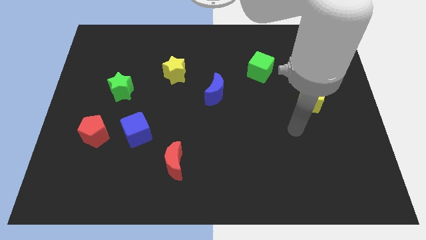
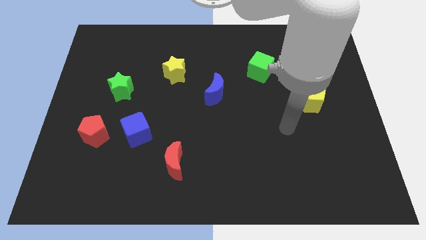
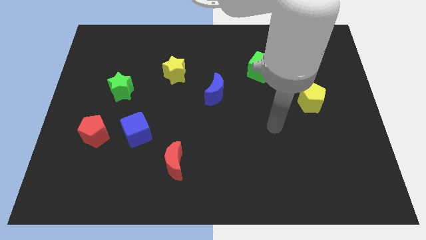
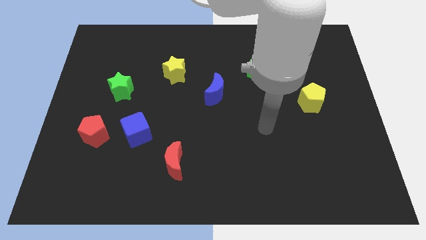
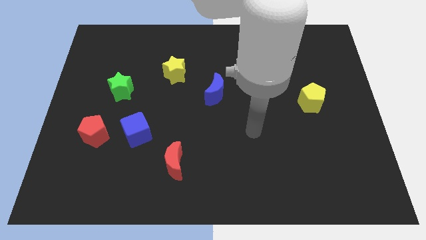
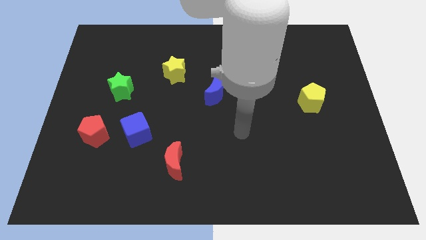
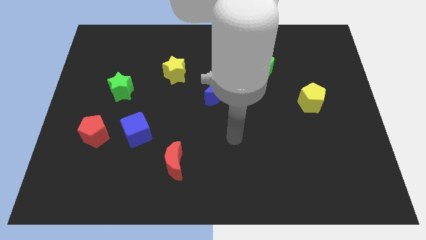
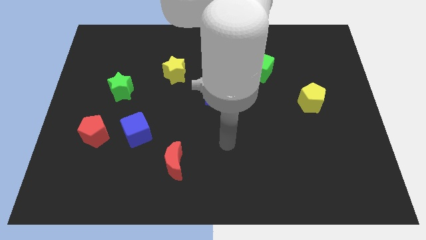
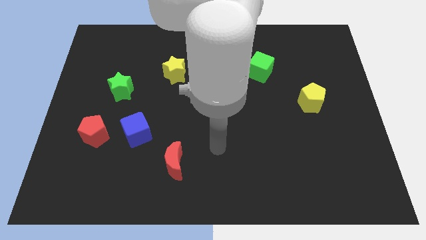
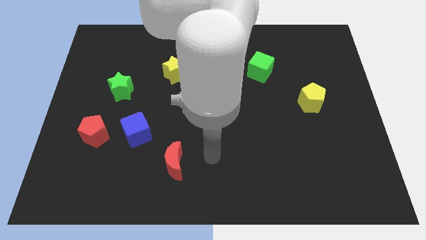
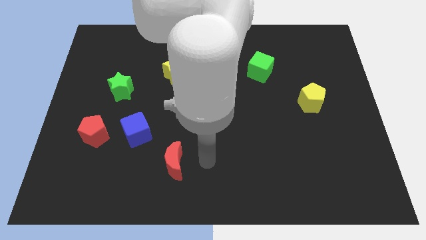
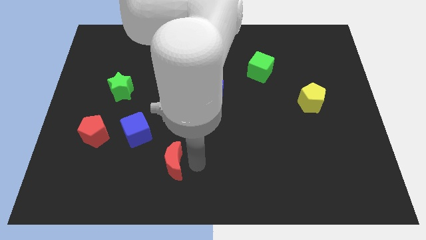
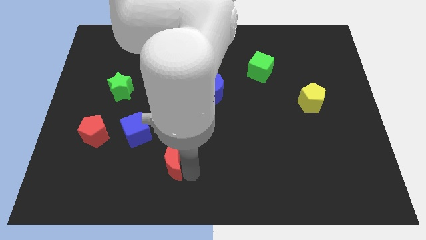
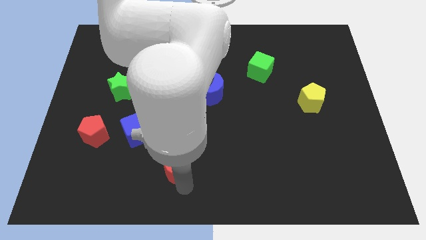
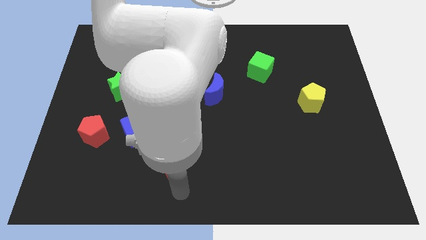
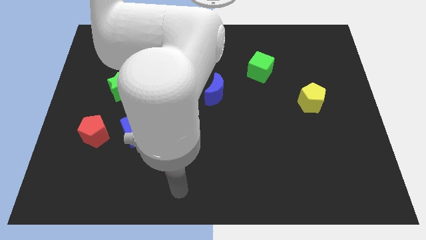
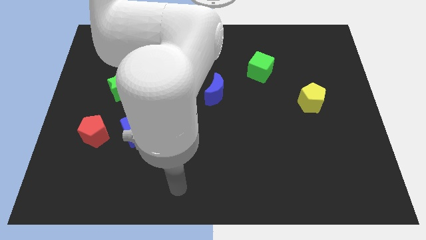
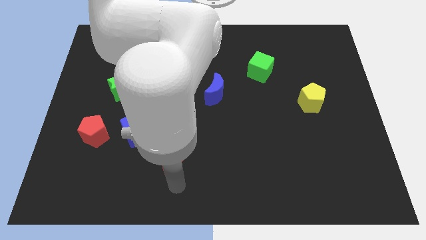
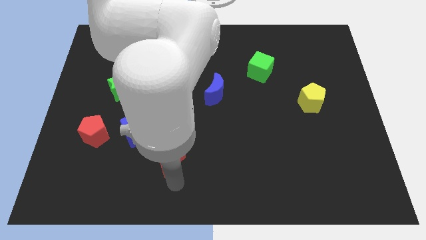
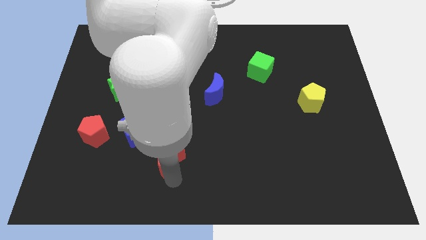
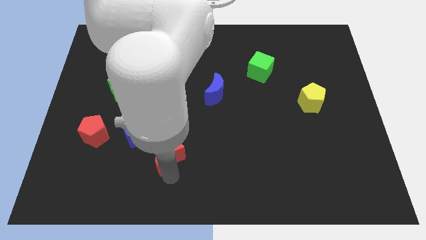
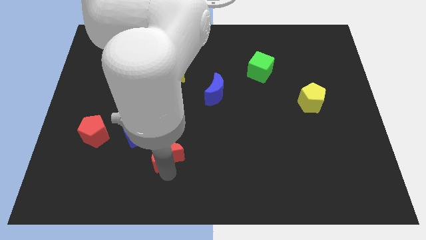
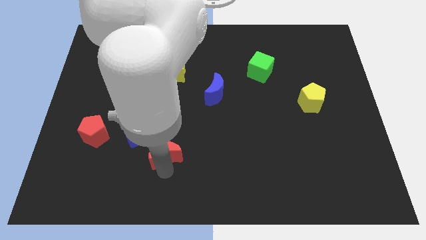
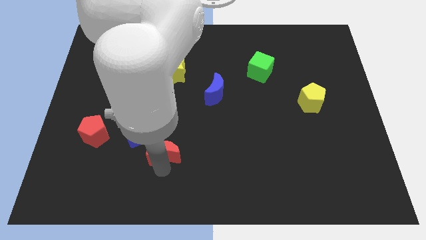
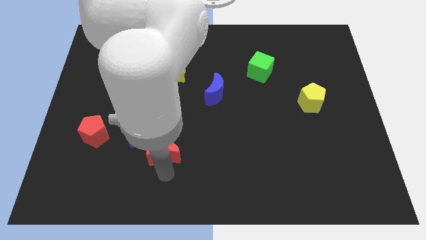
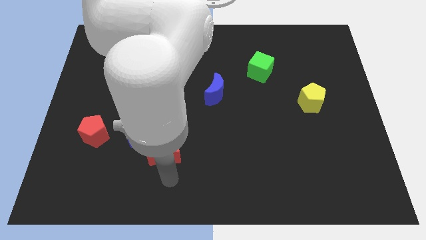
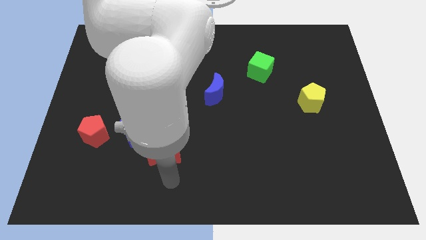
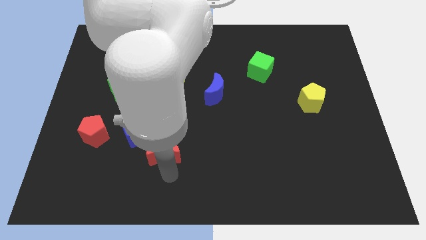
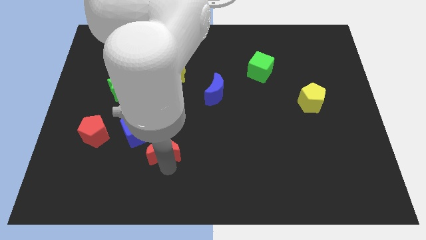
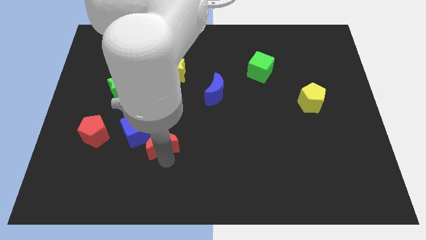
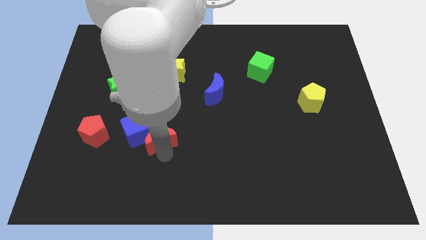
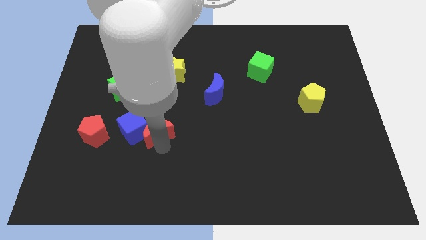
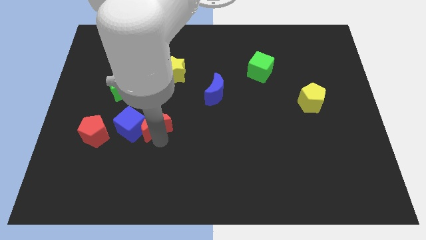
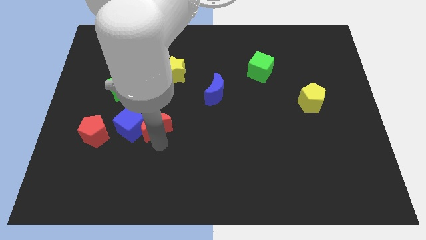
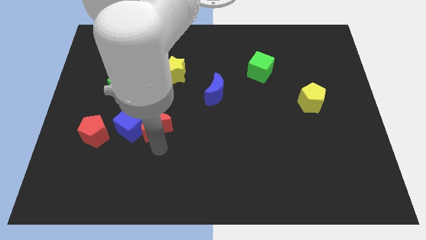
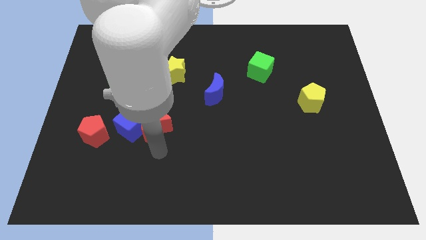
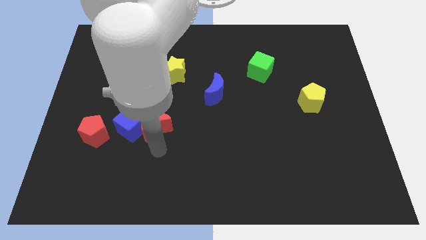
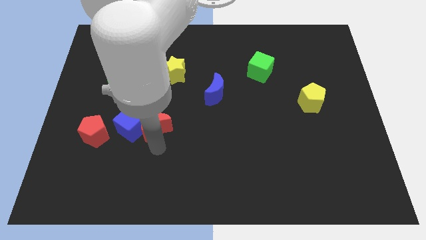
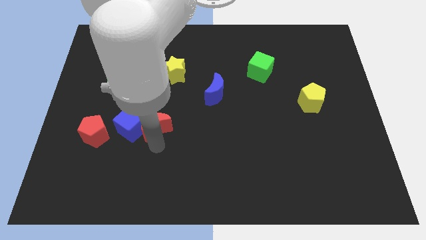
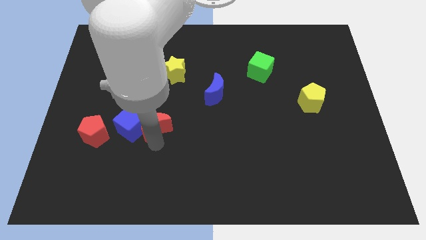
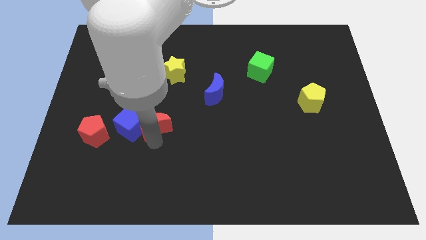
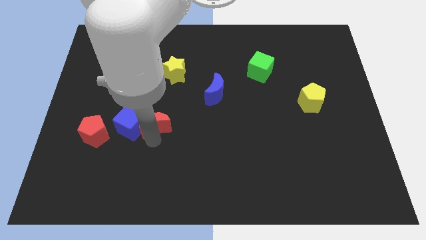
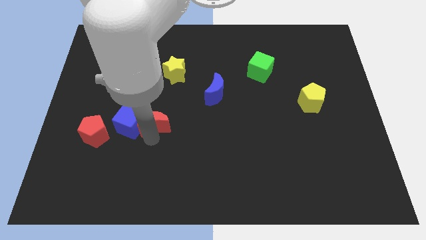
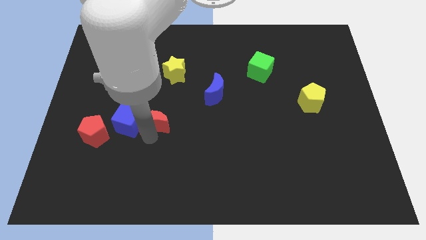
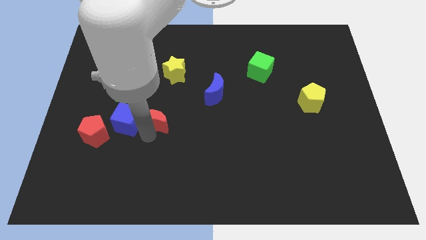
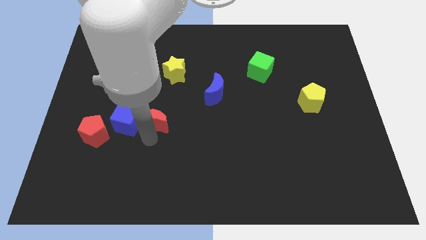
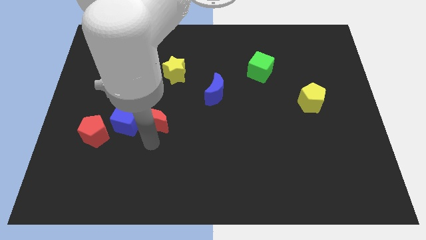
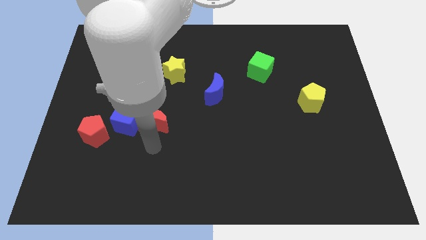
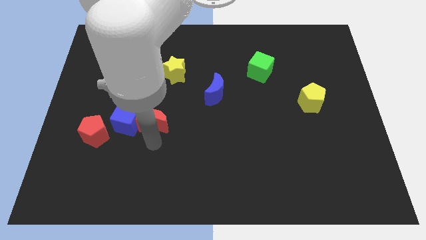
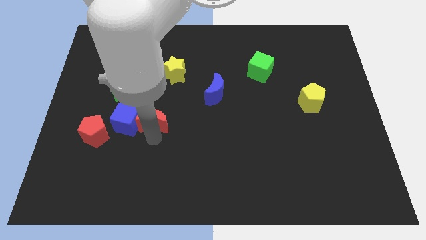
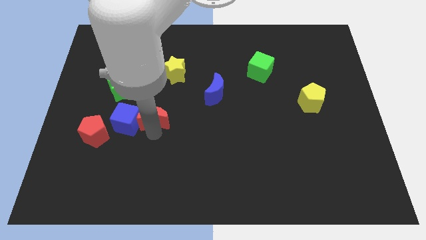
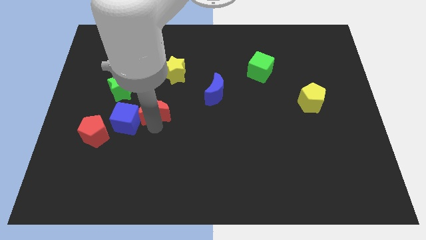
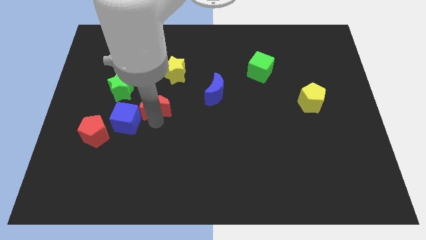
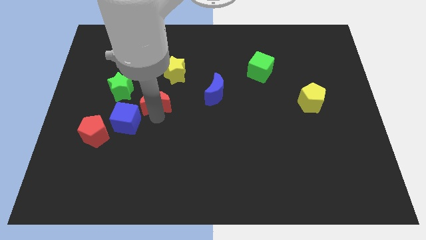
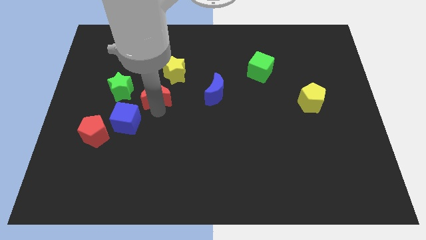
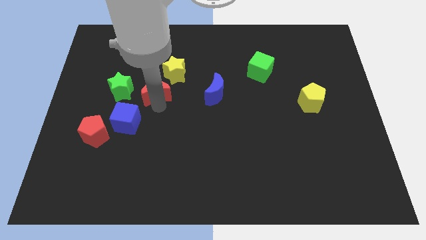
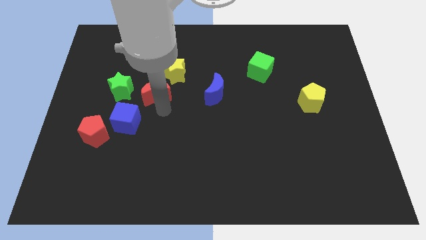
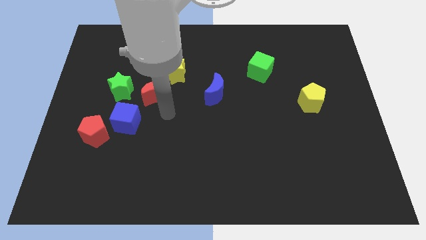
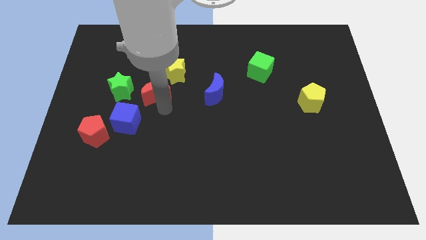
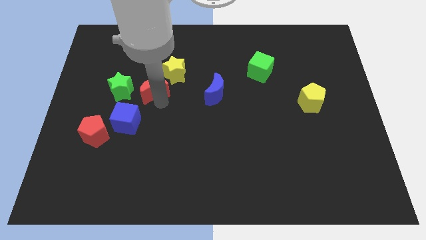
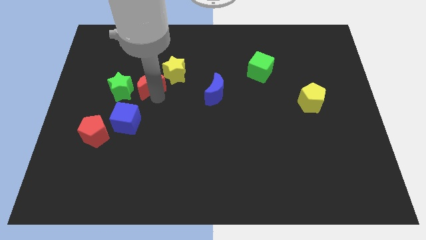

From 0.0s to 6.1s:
slide the red moon to the top right side of the green star

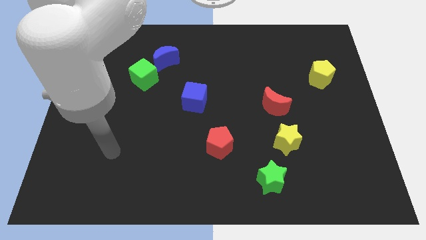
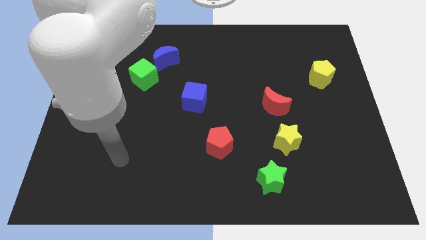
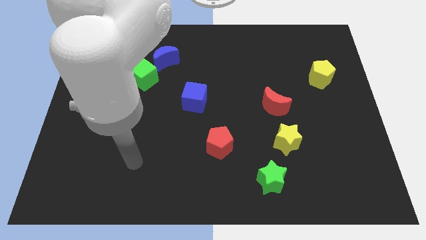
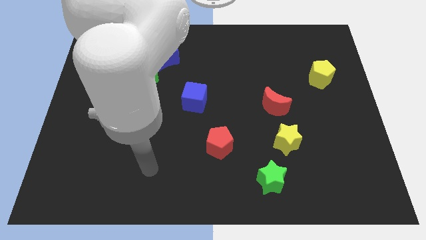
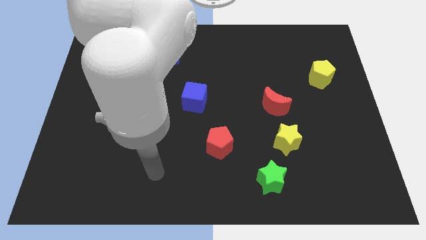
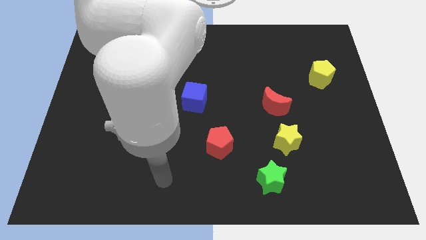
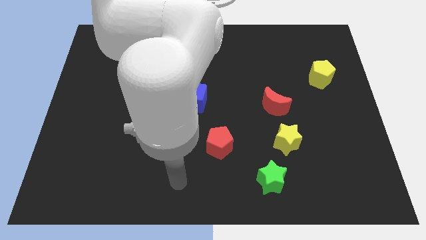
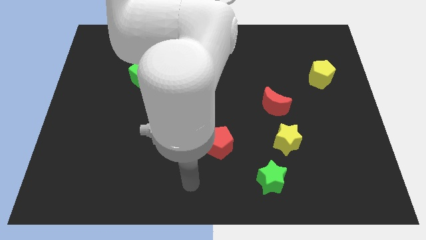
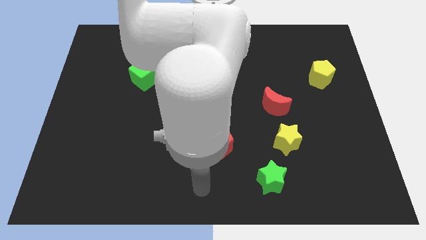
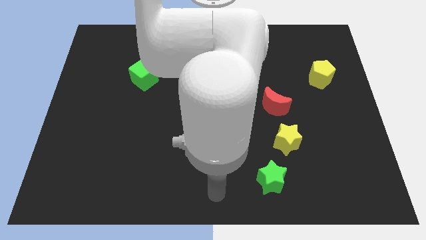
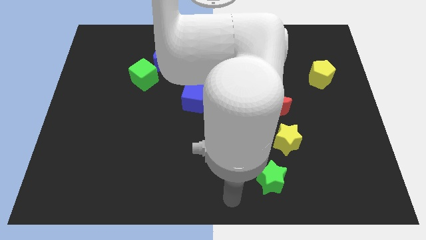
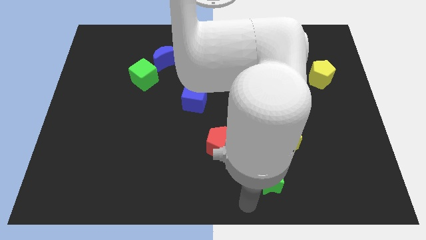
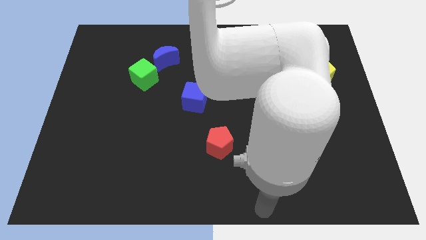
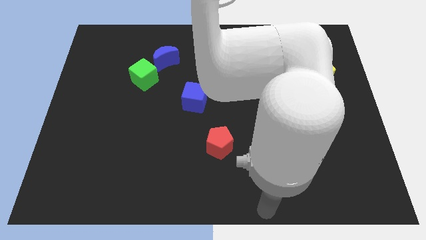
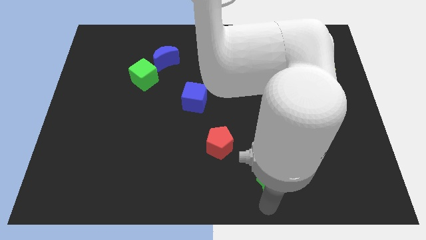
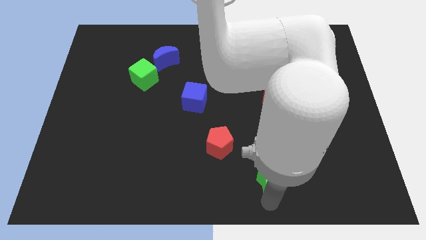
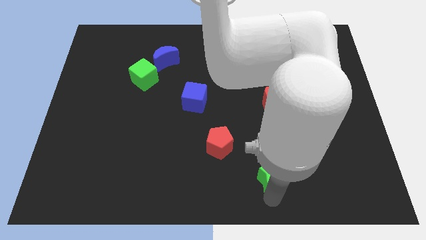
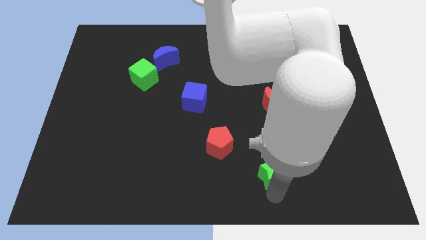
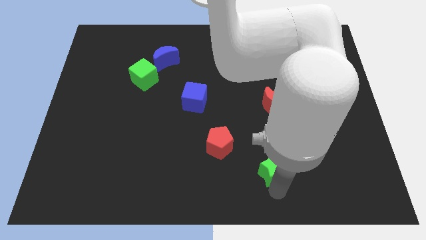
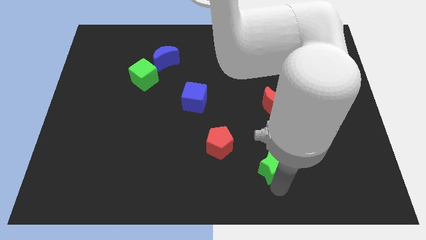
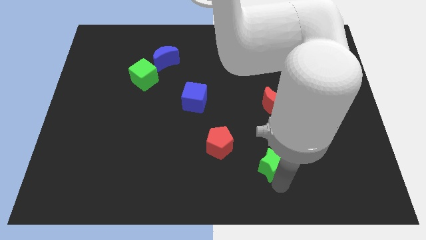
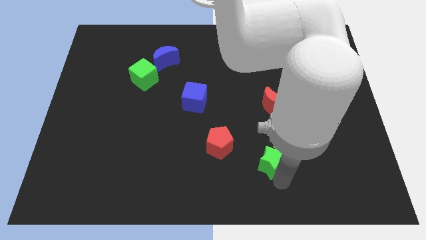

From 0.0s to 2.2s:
slide the green star to the bottom side of the red moon
